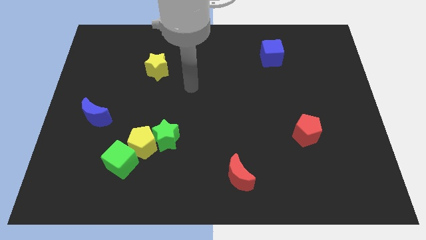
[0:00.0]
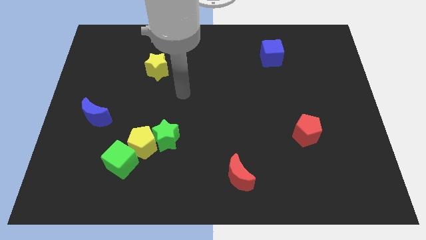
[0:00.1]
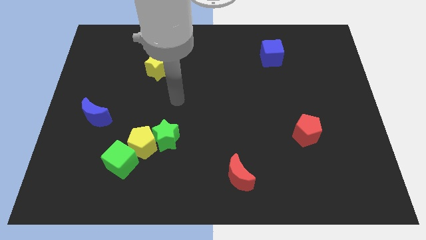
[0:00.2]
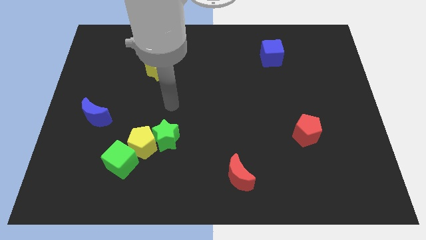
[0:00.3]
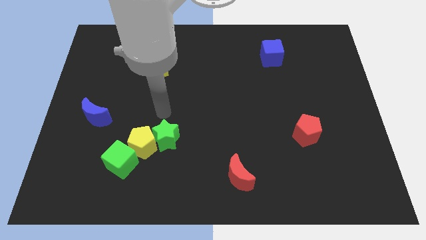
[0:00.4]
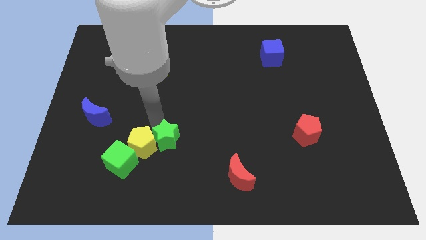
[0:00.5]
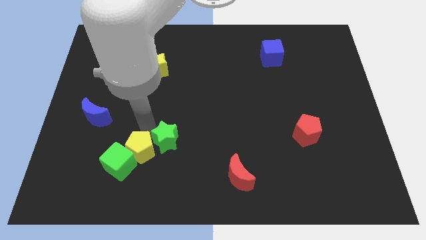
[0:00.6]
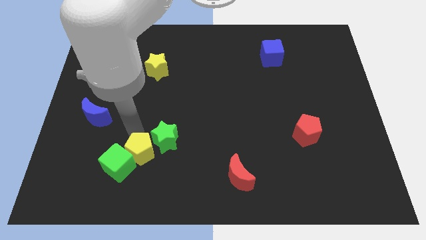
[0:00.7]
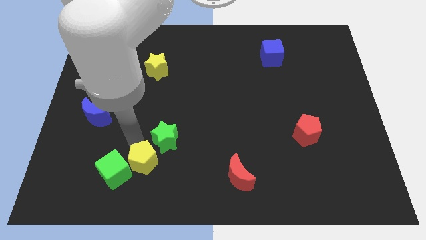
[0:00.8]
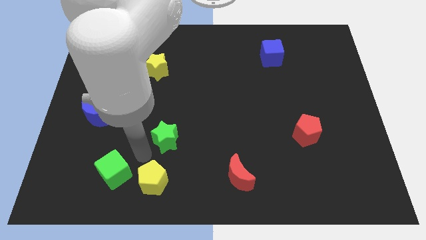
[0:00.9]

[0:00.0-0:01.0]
pull the green star apart from the yellow pentagon

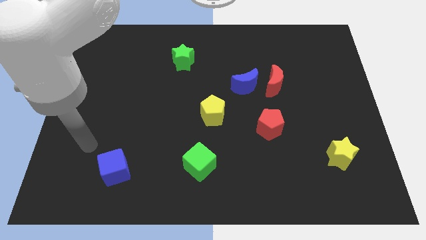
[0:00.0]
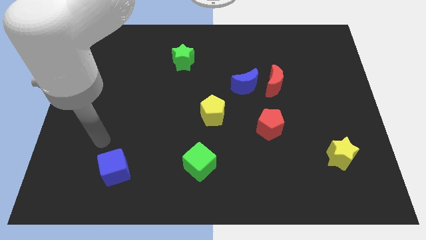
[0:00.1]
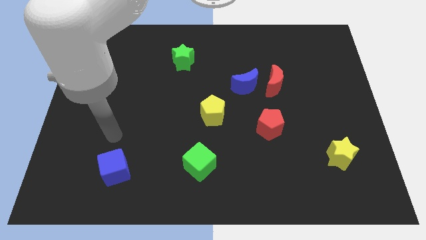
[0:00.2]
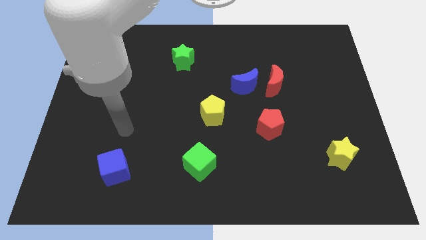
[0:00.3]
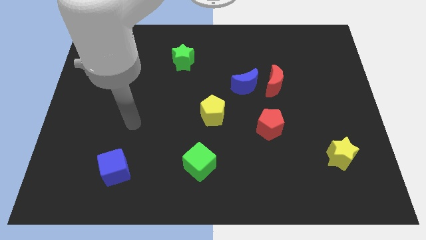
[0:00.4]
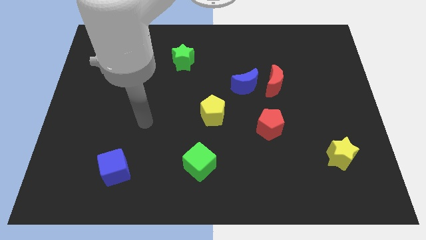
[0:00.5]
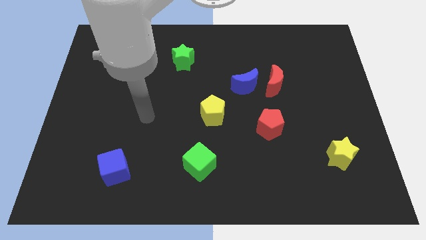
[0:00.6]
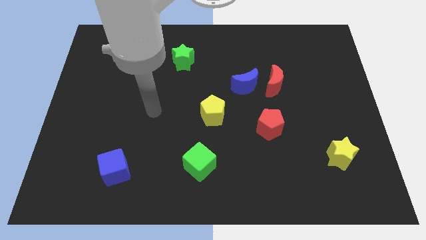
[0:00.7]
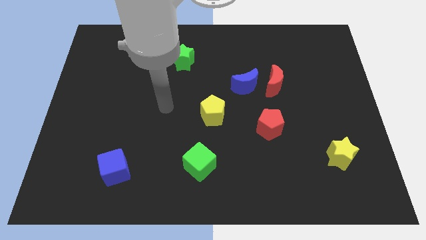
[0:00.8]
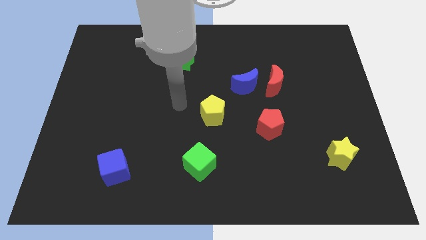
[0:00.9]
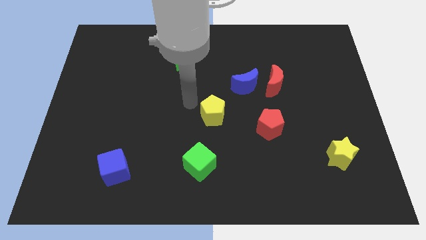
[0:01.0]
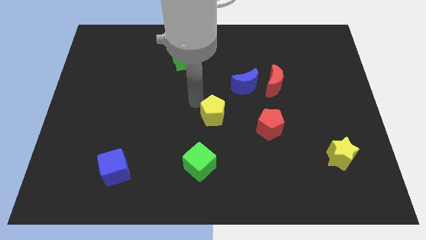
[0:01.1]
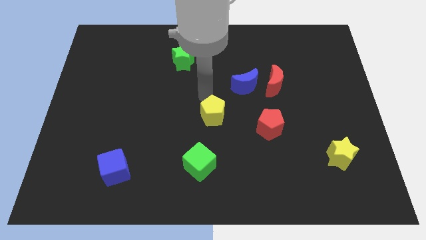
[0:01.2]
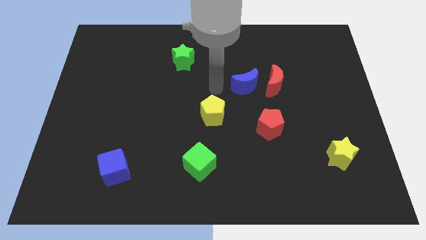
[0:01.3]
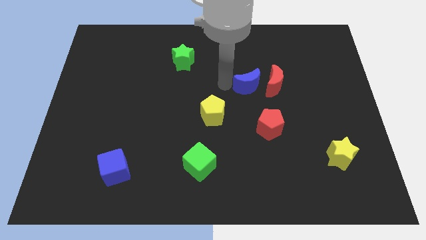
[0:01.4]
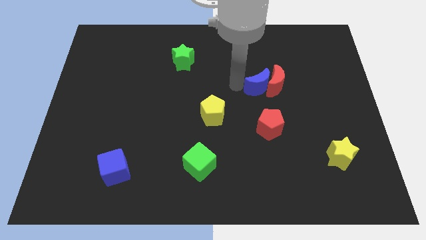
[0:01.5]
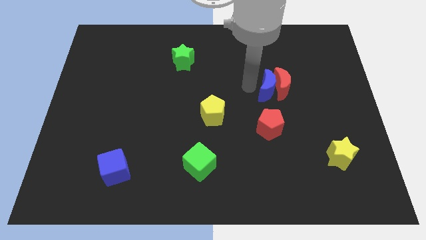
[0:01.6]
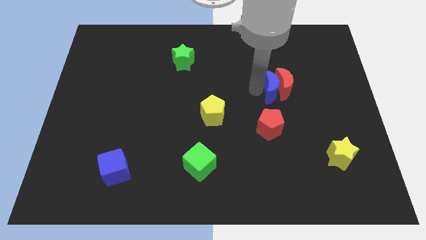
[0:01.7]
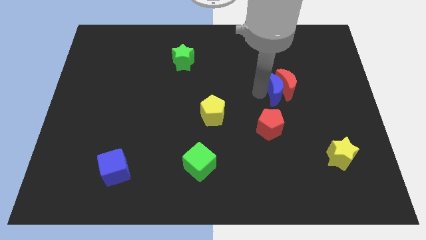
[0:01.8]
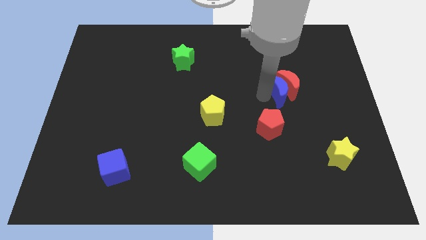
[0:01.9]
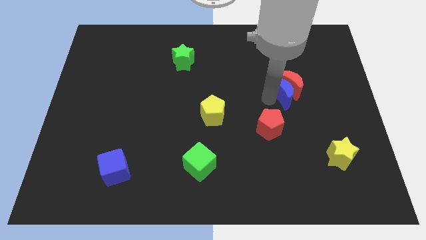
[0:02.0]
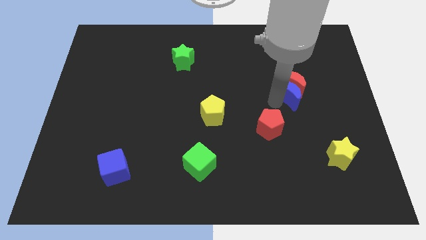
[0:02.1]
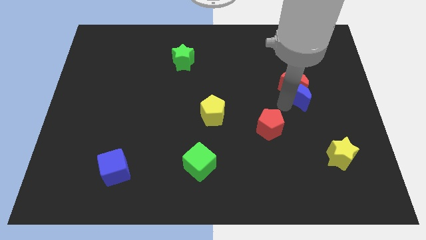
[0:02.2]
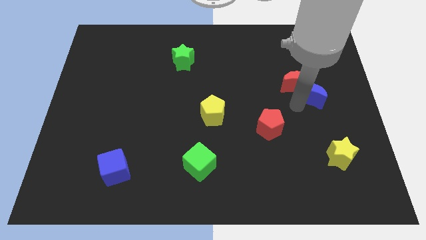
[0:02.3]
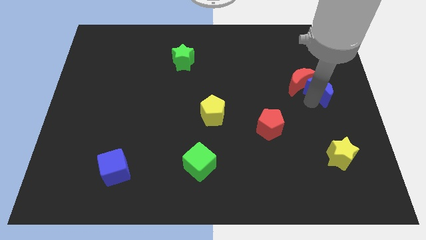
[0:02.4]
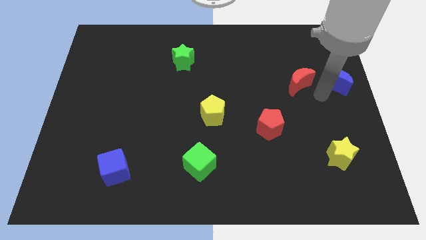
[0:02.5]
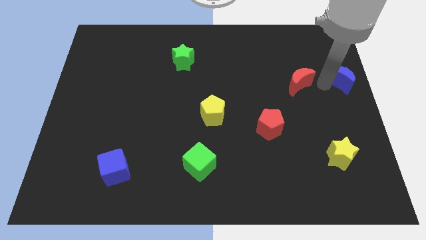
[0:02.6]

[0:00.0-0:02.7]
separate the red moon from the blue moon

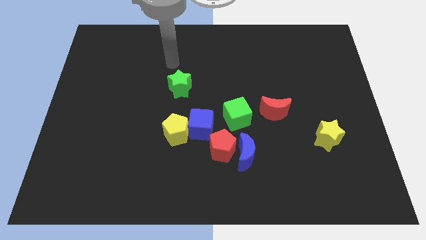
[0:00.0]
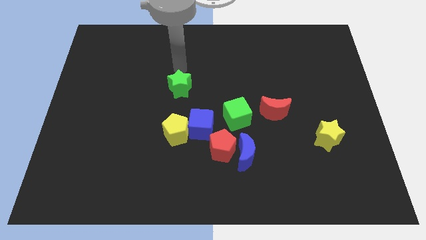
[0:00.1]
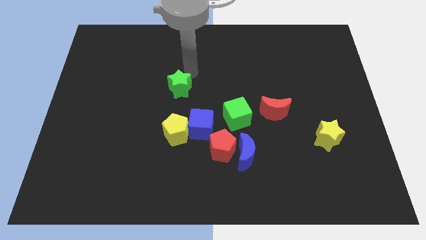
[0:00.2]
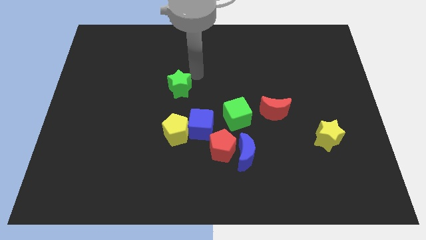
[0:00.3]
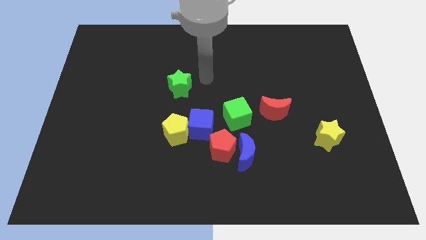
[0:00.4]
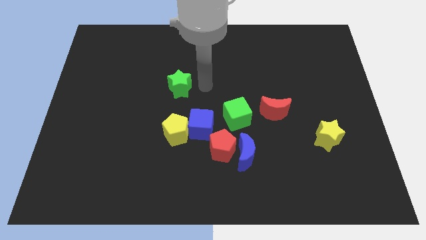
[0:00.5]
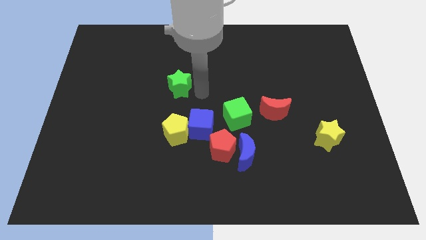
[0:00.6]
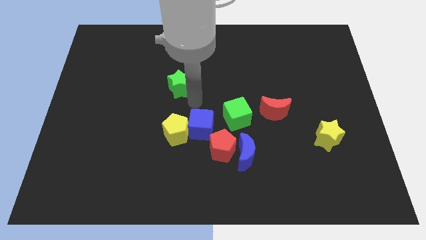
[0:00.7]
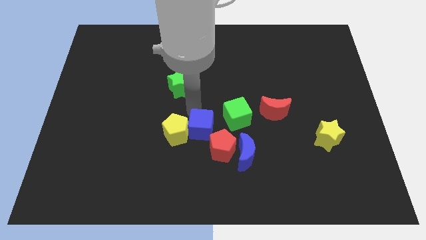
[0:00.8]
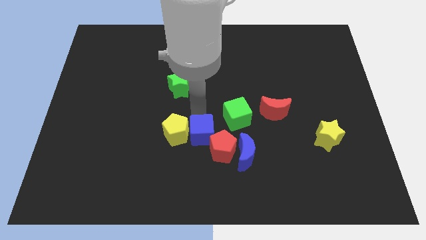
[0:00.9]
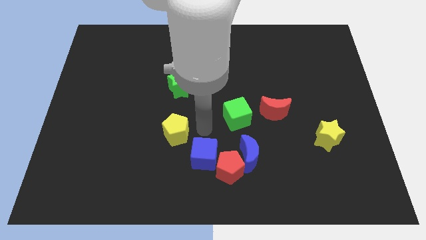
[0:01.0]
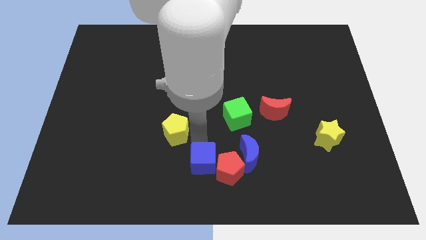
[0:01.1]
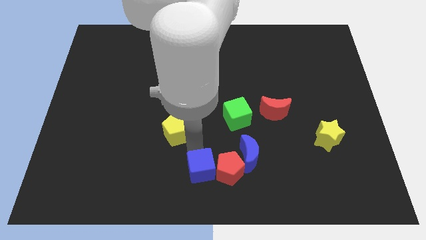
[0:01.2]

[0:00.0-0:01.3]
move the yellow pentagon away from the blue cube

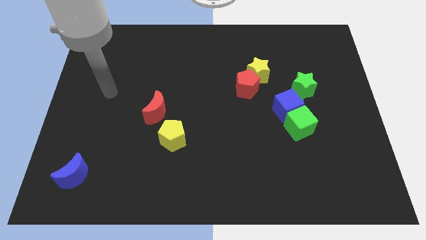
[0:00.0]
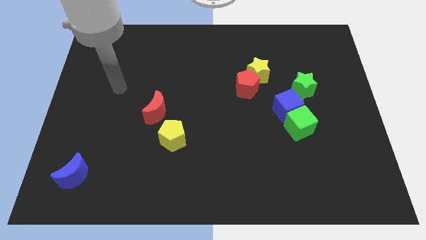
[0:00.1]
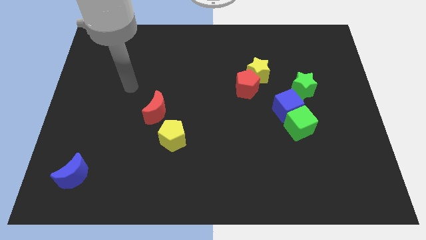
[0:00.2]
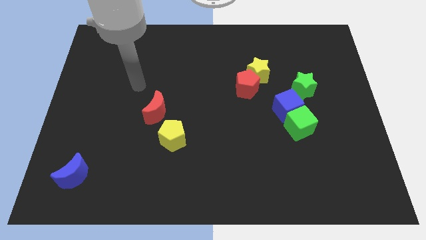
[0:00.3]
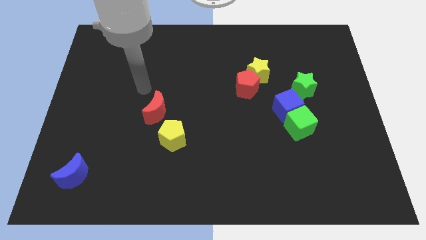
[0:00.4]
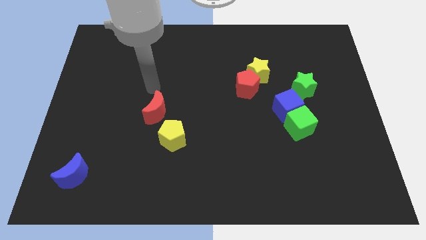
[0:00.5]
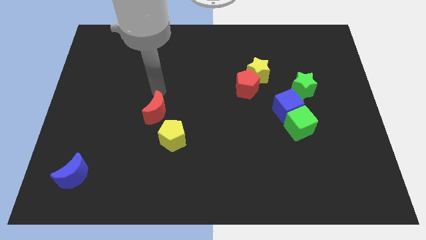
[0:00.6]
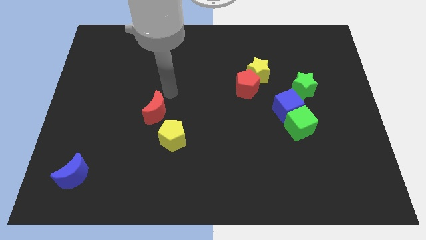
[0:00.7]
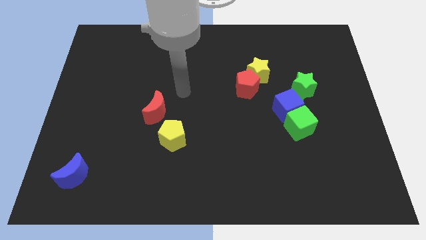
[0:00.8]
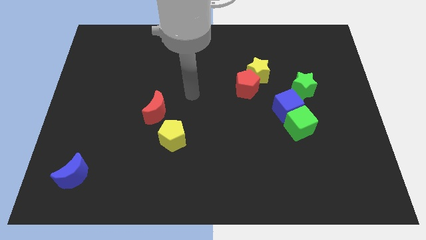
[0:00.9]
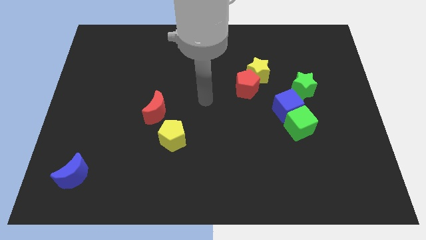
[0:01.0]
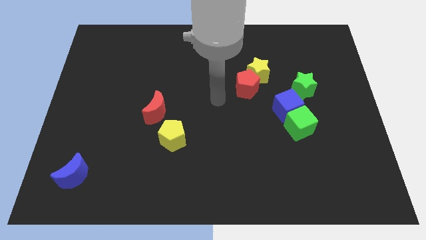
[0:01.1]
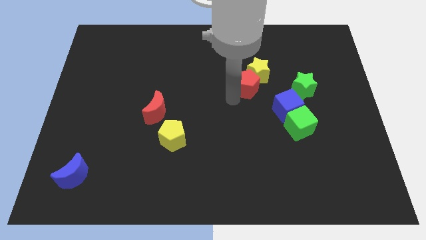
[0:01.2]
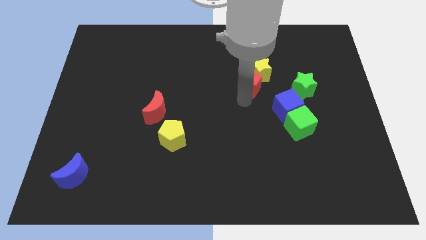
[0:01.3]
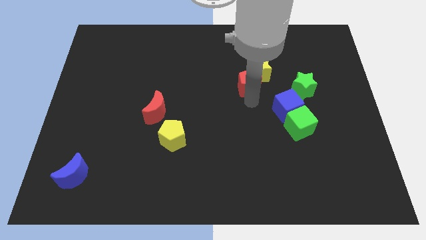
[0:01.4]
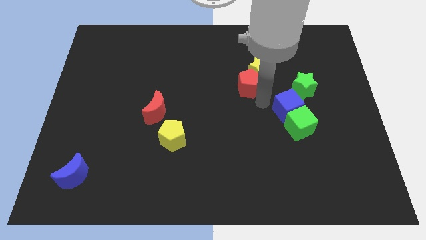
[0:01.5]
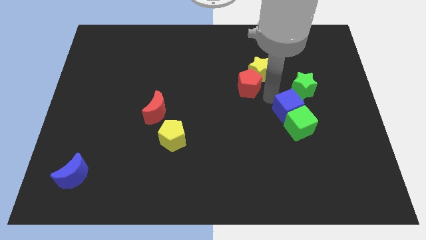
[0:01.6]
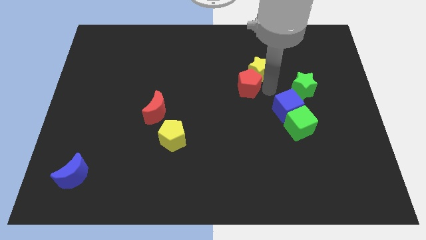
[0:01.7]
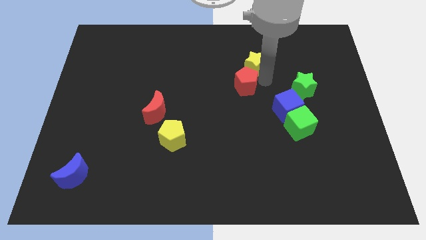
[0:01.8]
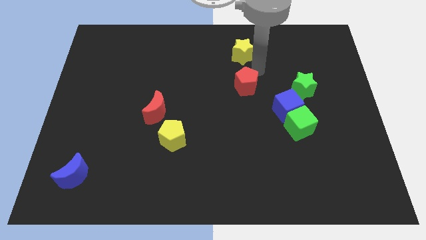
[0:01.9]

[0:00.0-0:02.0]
separate the red pentagon from the yellow star

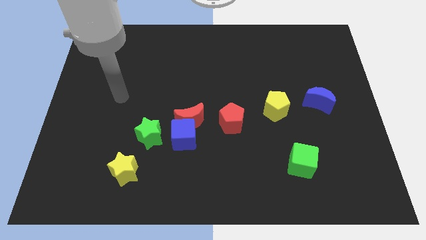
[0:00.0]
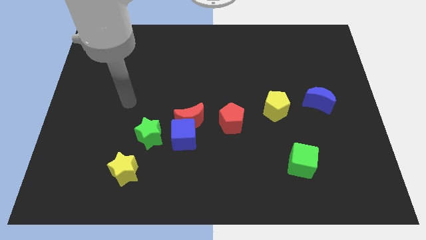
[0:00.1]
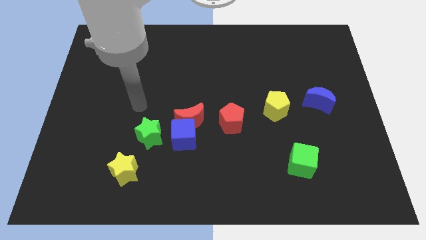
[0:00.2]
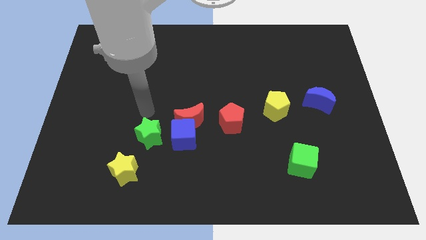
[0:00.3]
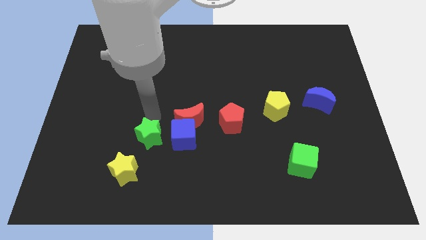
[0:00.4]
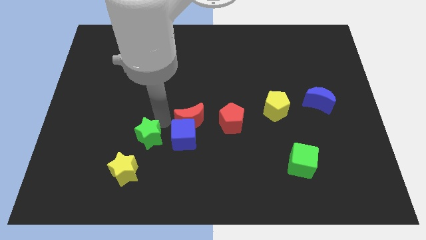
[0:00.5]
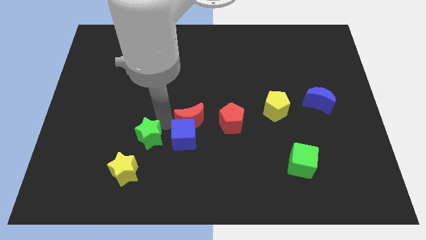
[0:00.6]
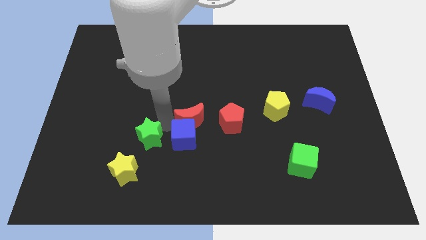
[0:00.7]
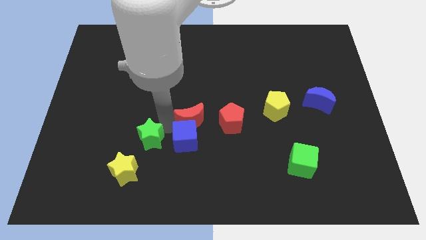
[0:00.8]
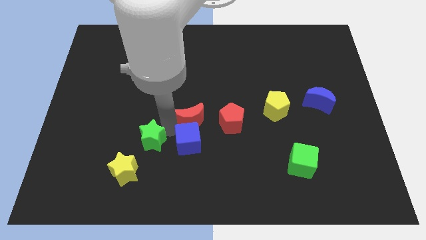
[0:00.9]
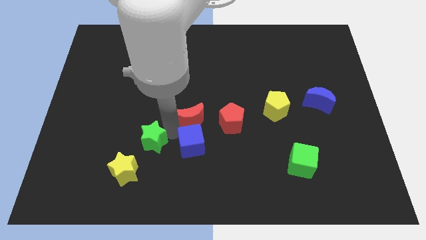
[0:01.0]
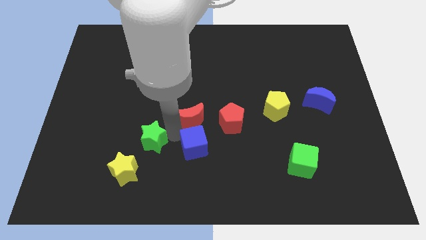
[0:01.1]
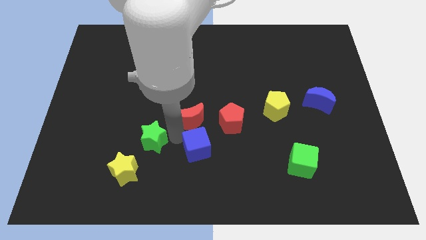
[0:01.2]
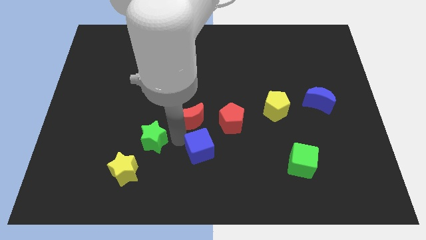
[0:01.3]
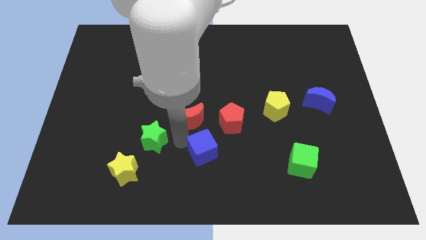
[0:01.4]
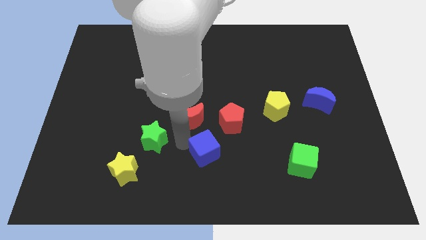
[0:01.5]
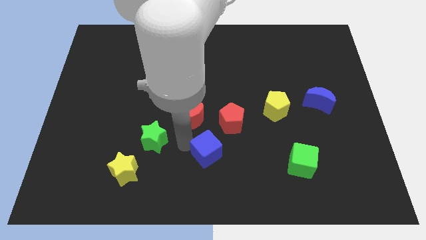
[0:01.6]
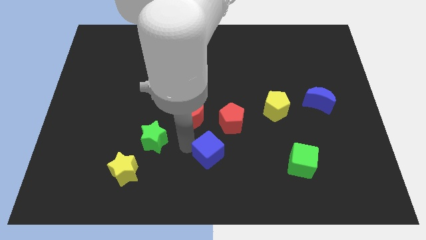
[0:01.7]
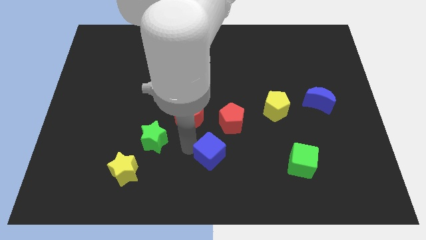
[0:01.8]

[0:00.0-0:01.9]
move the blue cube away from the red moon and green star

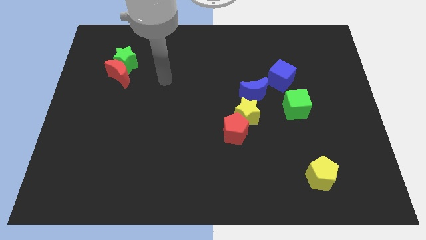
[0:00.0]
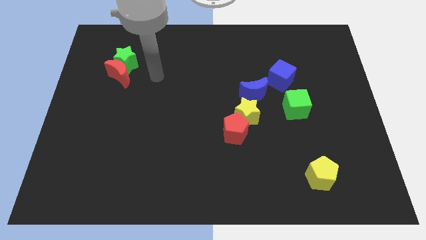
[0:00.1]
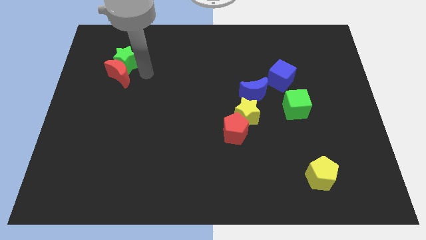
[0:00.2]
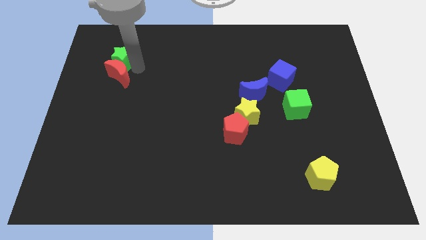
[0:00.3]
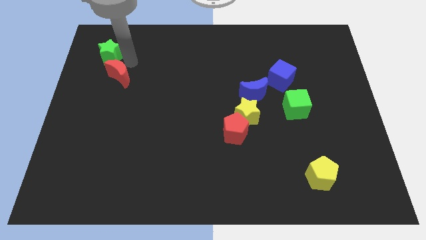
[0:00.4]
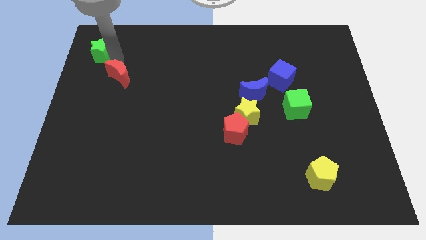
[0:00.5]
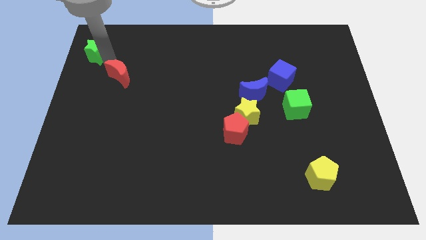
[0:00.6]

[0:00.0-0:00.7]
pull the red moon apart from the green star
